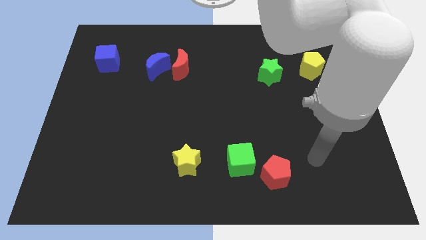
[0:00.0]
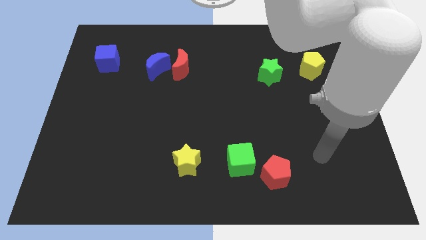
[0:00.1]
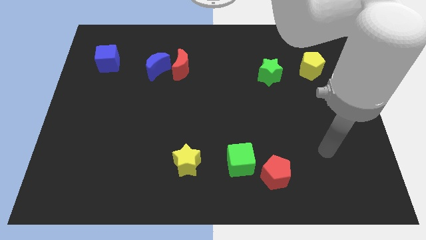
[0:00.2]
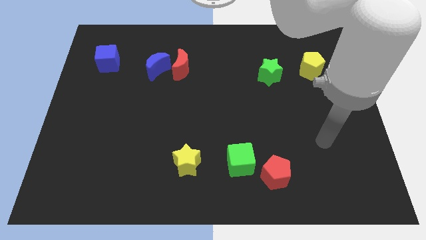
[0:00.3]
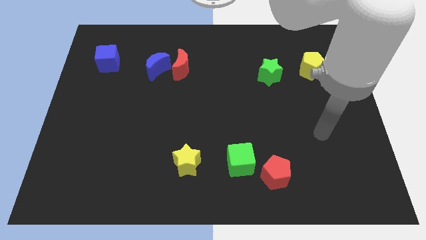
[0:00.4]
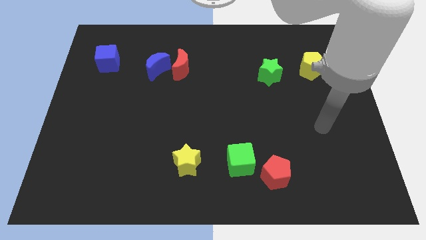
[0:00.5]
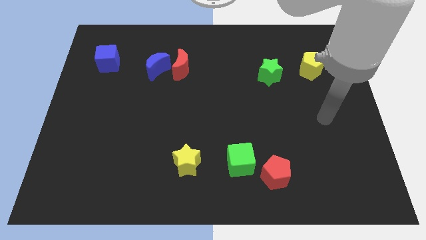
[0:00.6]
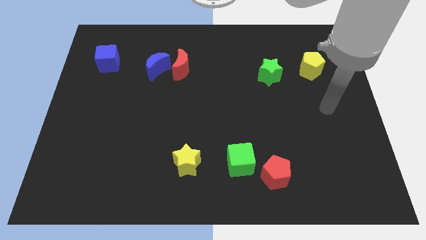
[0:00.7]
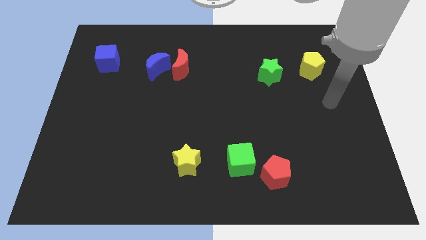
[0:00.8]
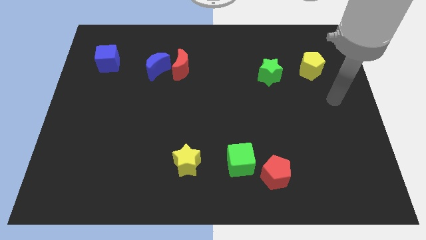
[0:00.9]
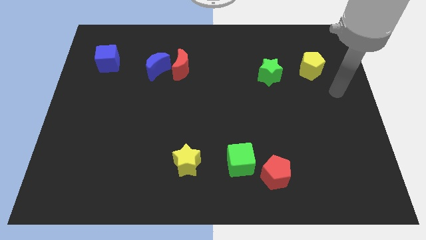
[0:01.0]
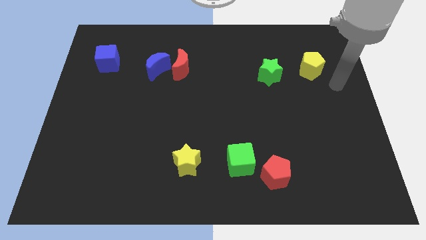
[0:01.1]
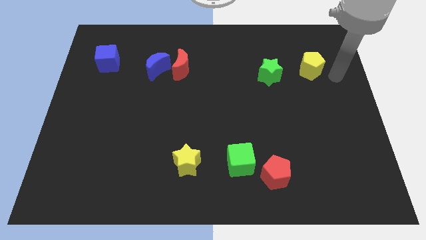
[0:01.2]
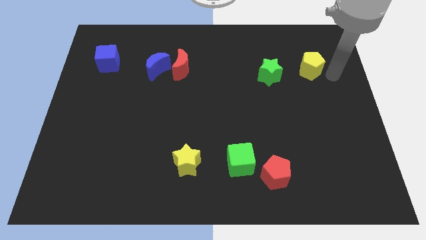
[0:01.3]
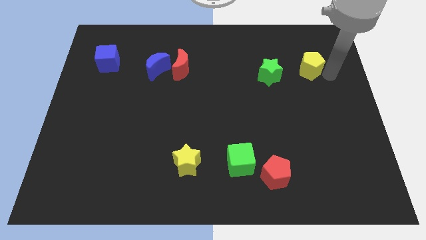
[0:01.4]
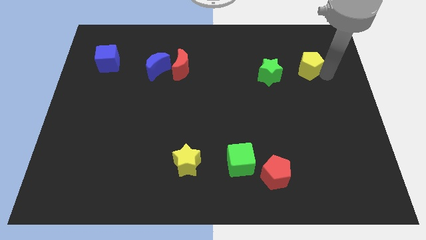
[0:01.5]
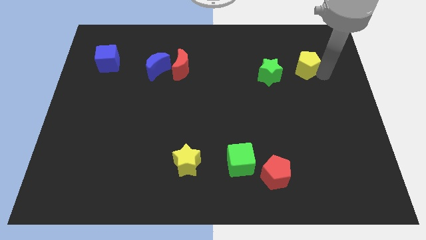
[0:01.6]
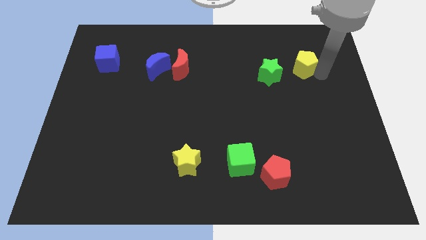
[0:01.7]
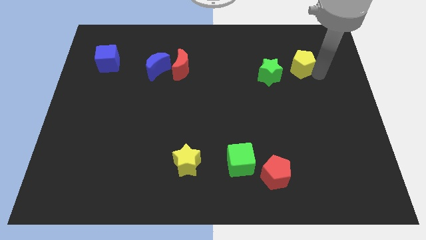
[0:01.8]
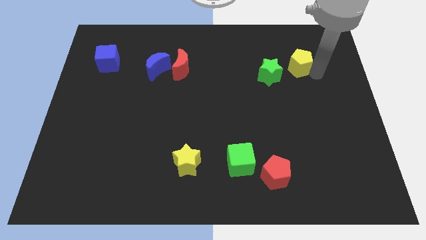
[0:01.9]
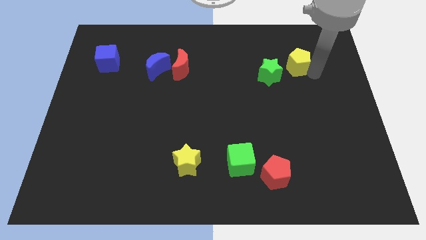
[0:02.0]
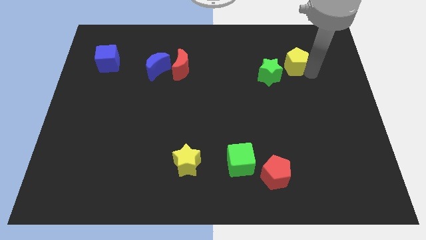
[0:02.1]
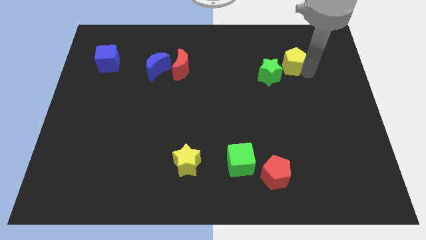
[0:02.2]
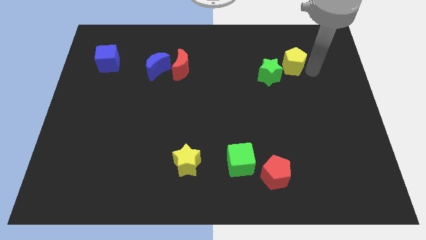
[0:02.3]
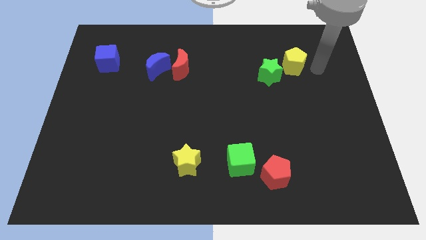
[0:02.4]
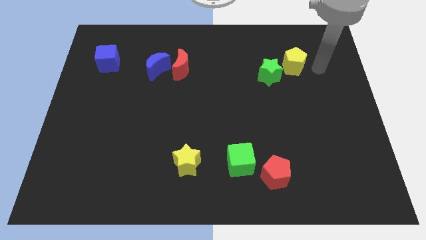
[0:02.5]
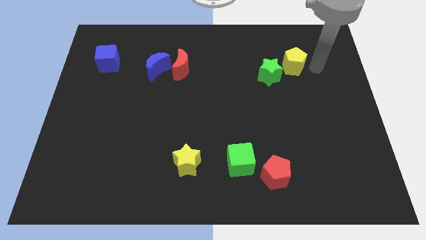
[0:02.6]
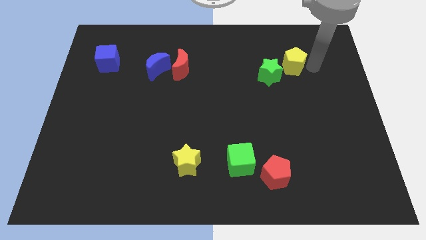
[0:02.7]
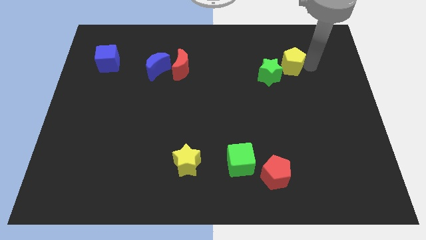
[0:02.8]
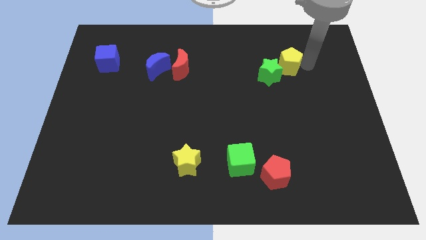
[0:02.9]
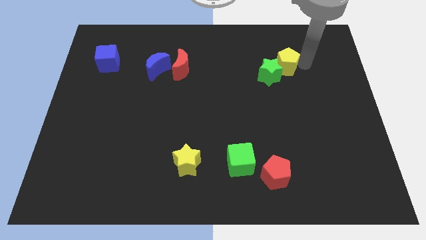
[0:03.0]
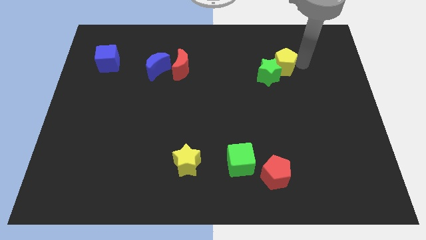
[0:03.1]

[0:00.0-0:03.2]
slide the yellow pentagon left a little

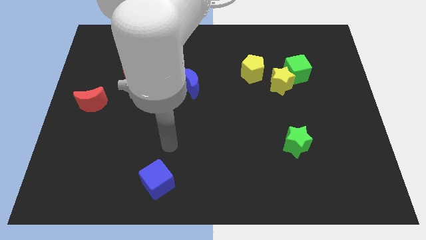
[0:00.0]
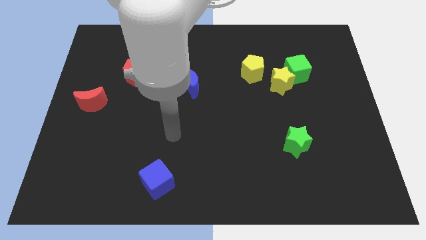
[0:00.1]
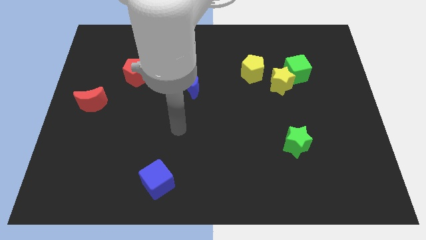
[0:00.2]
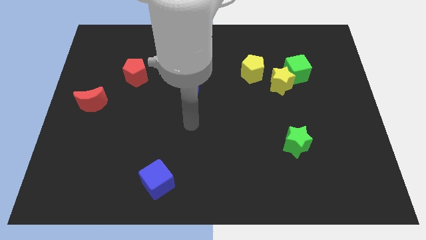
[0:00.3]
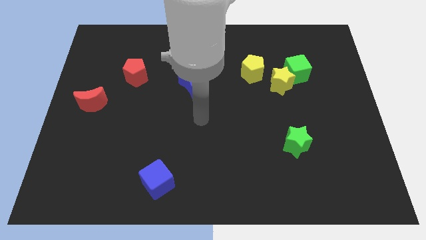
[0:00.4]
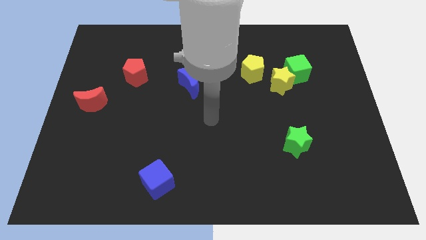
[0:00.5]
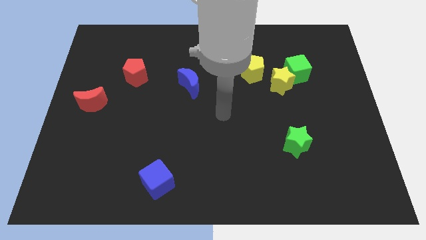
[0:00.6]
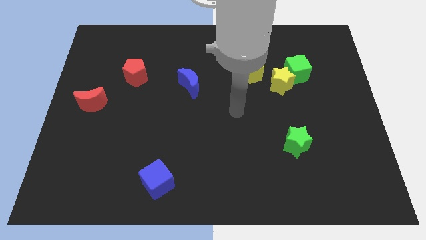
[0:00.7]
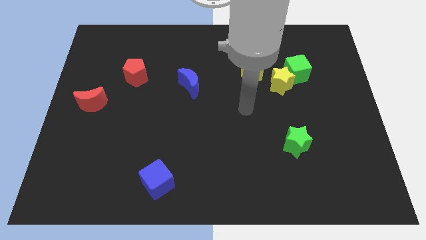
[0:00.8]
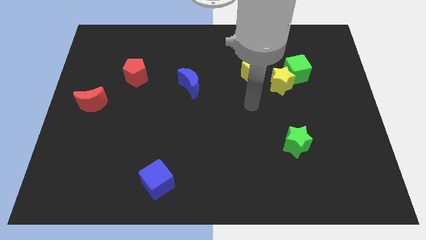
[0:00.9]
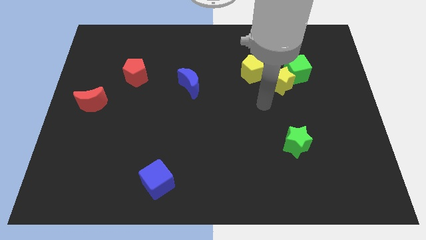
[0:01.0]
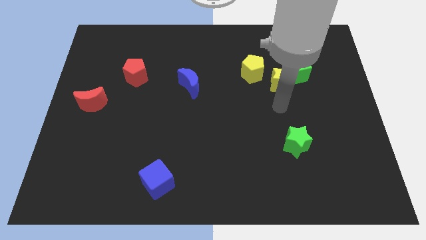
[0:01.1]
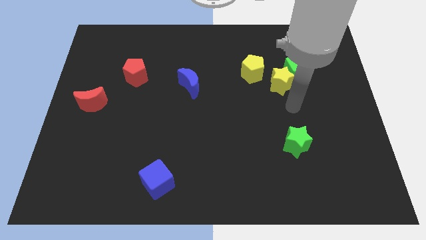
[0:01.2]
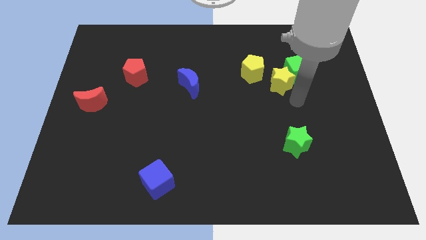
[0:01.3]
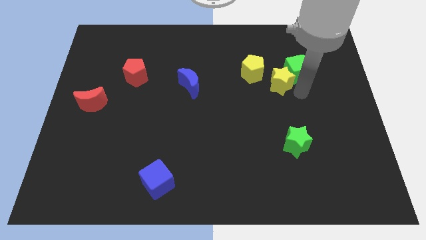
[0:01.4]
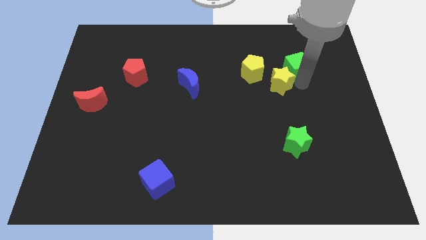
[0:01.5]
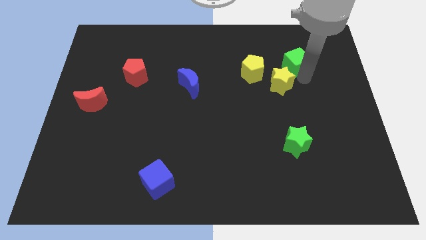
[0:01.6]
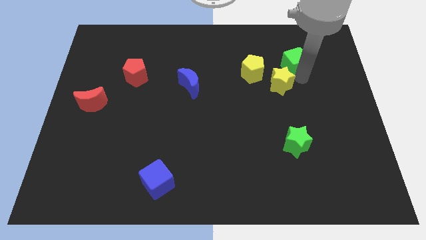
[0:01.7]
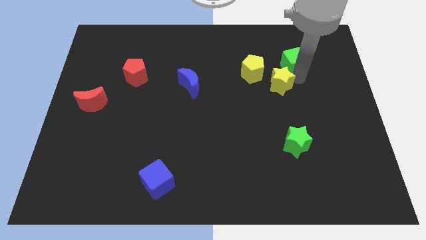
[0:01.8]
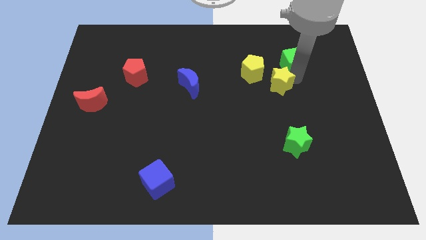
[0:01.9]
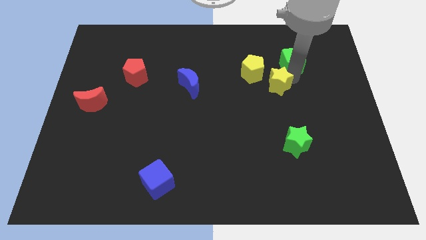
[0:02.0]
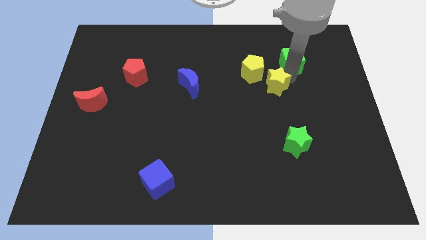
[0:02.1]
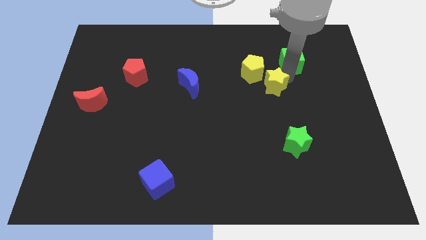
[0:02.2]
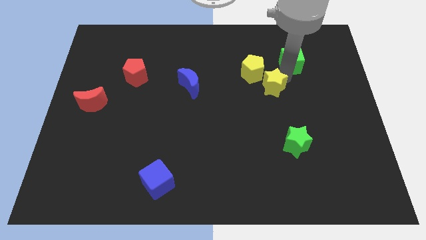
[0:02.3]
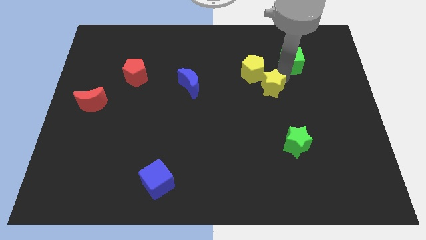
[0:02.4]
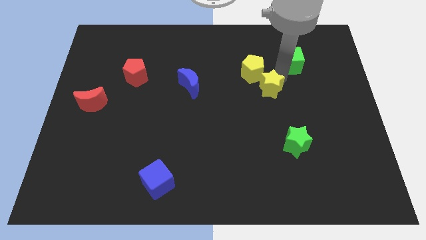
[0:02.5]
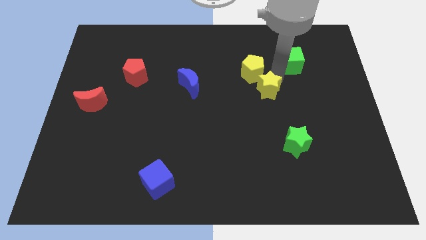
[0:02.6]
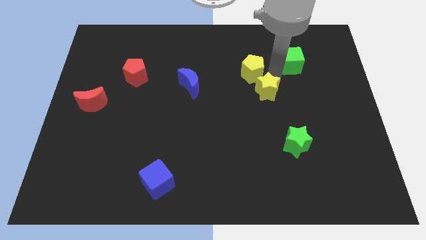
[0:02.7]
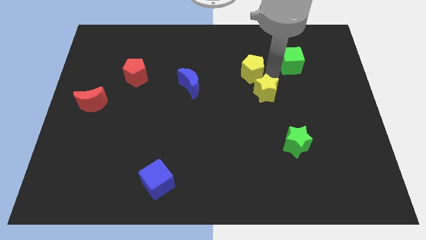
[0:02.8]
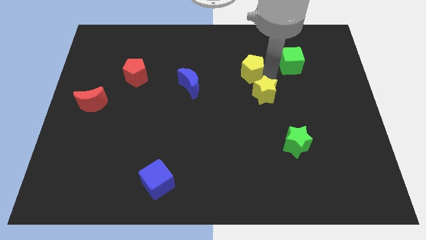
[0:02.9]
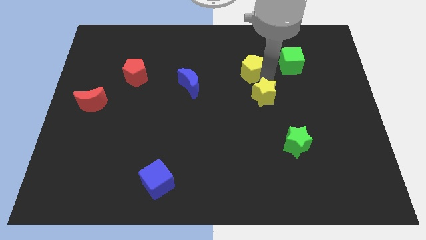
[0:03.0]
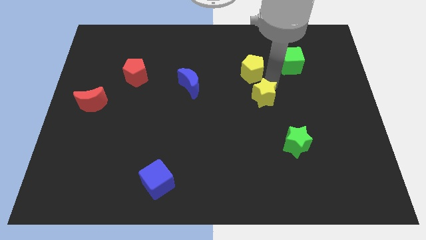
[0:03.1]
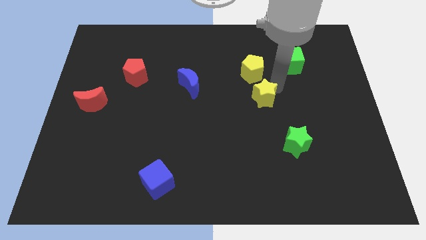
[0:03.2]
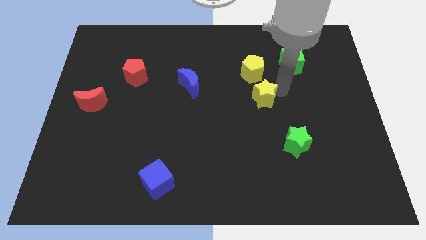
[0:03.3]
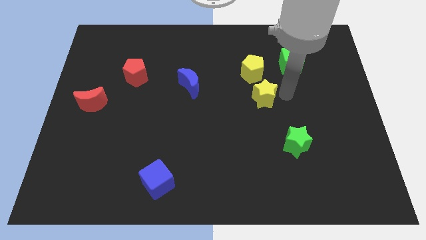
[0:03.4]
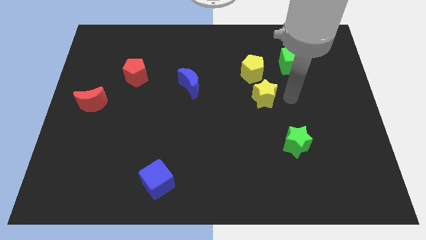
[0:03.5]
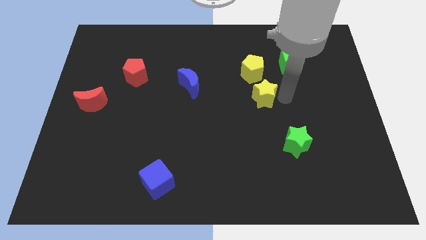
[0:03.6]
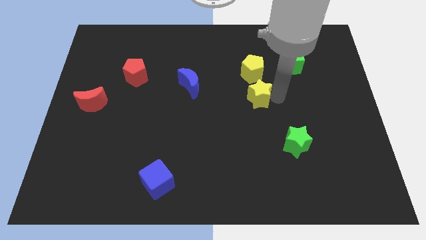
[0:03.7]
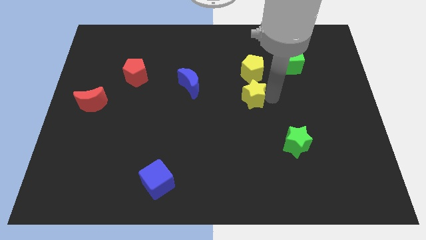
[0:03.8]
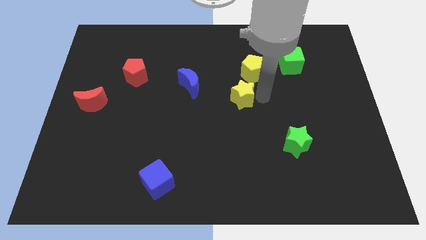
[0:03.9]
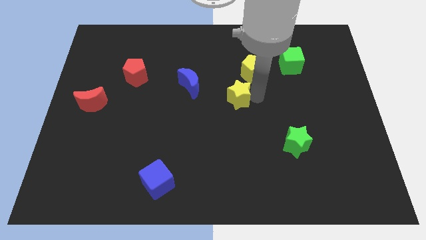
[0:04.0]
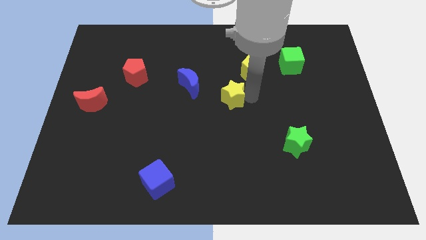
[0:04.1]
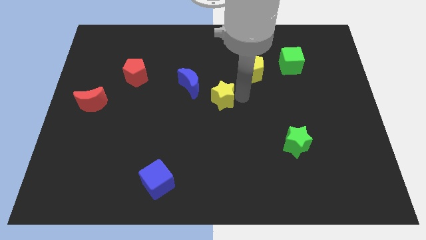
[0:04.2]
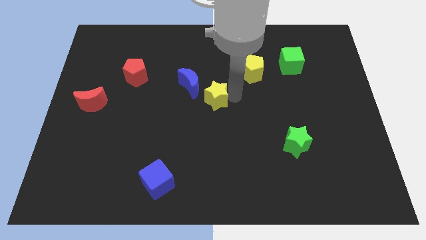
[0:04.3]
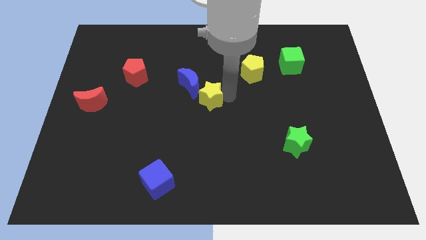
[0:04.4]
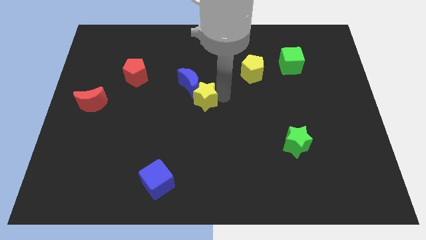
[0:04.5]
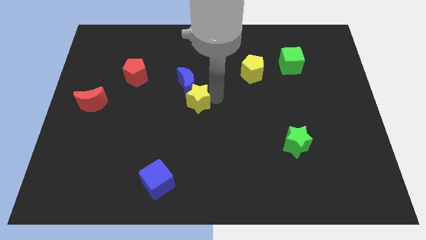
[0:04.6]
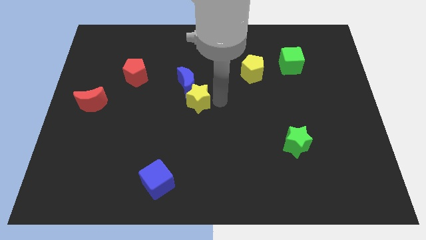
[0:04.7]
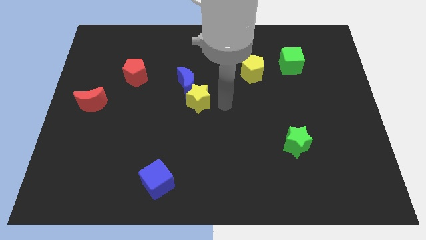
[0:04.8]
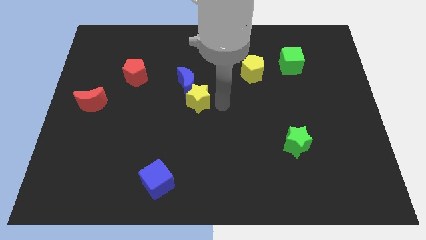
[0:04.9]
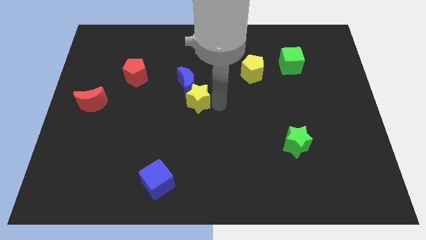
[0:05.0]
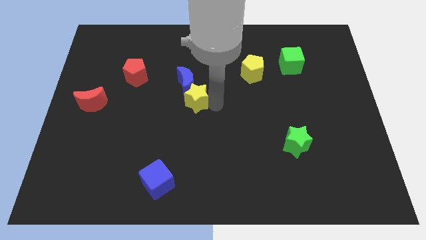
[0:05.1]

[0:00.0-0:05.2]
move the yellow star to the left
